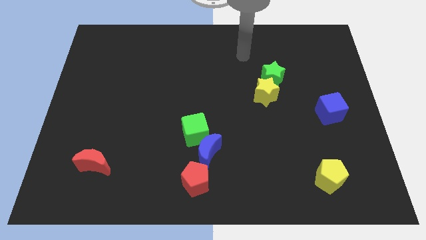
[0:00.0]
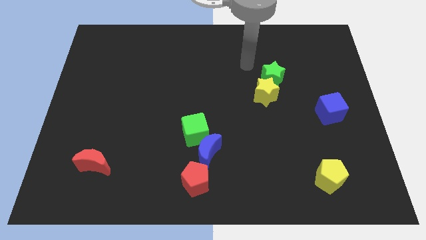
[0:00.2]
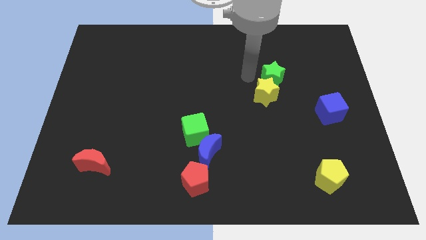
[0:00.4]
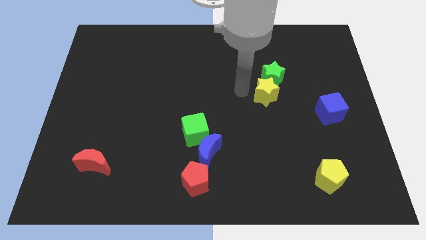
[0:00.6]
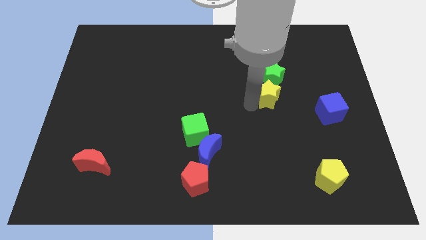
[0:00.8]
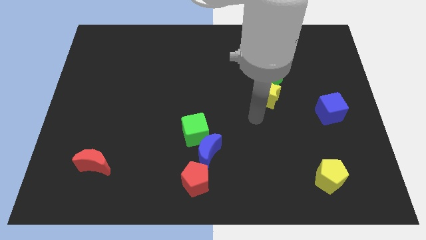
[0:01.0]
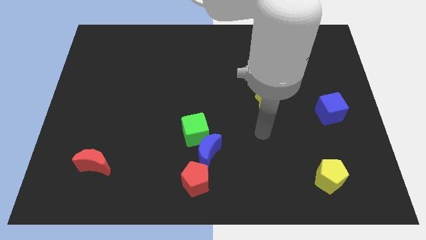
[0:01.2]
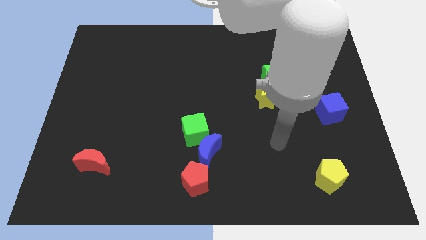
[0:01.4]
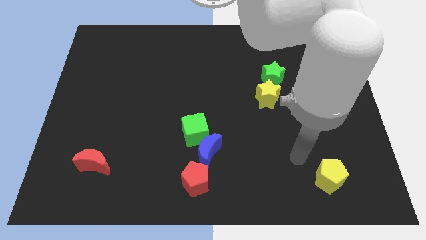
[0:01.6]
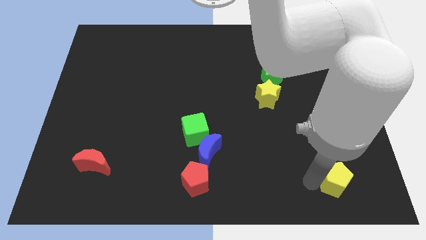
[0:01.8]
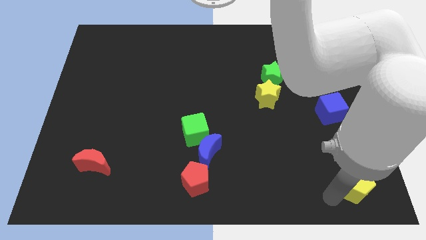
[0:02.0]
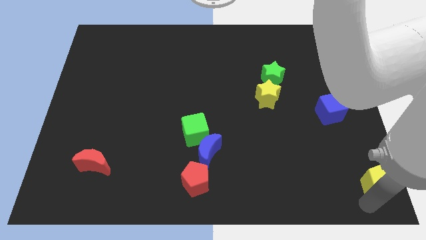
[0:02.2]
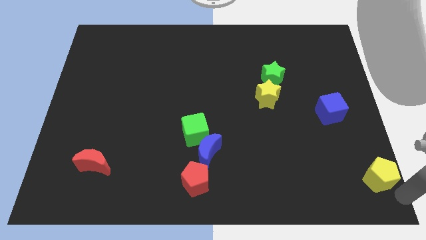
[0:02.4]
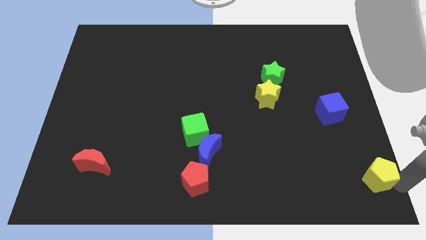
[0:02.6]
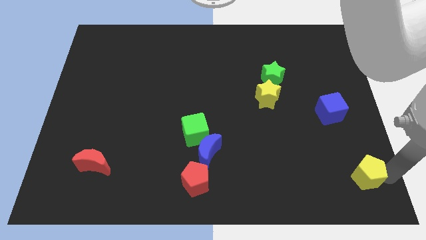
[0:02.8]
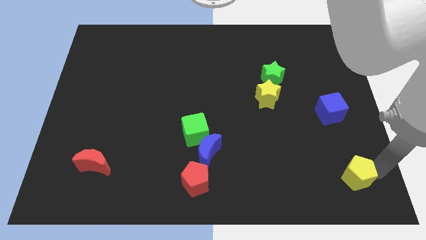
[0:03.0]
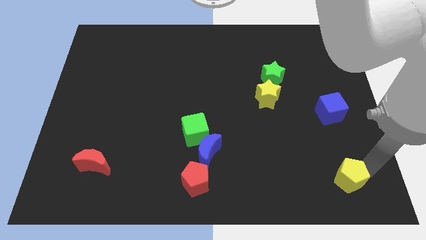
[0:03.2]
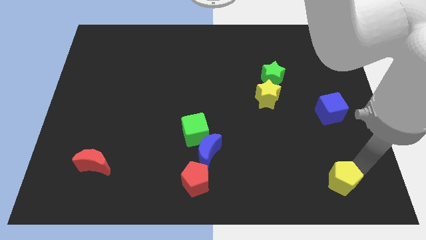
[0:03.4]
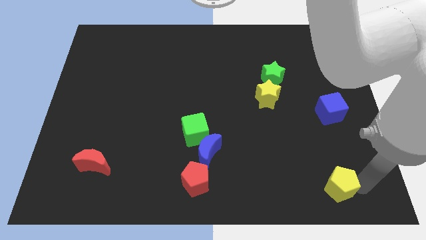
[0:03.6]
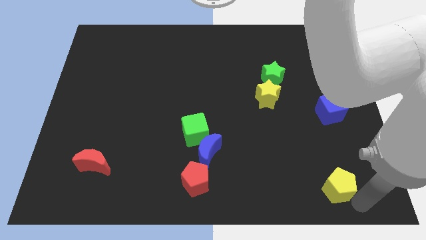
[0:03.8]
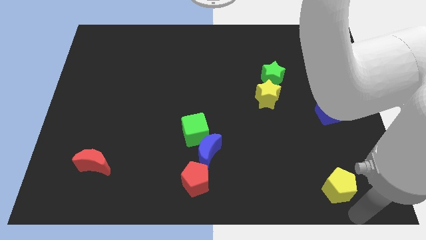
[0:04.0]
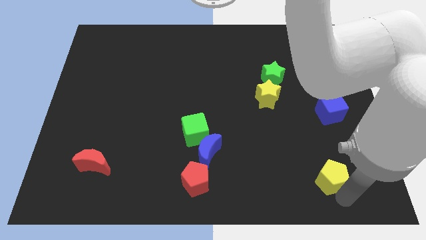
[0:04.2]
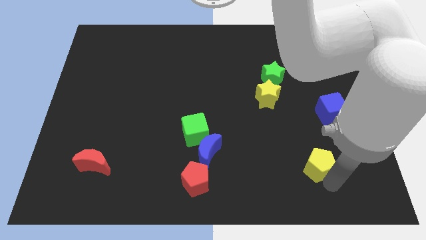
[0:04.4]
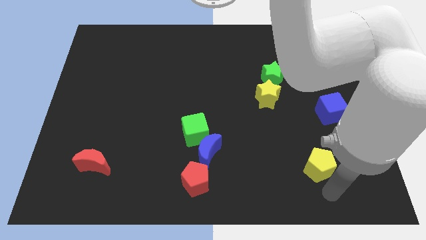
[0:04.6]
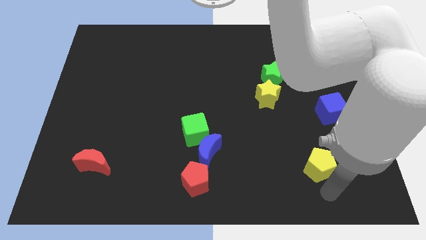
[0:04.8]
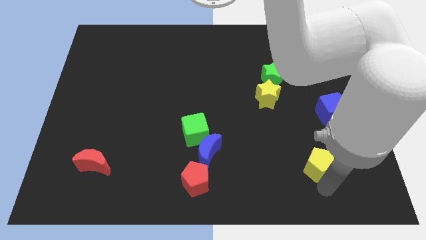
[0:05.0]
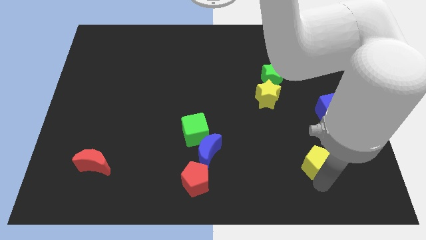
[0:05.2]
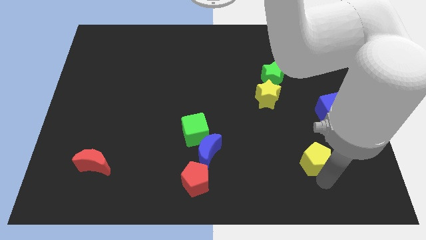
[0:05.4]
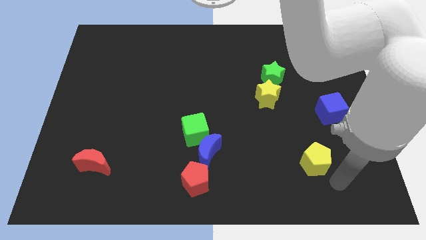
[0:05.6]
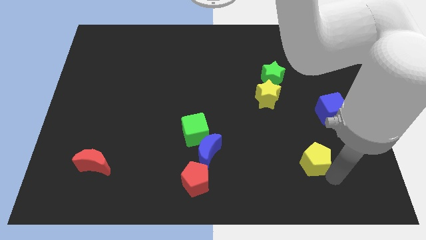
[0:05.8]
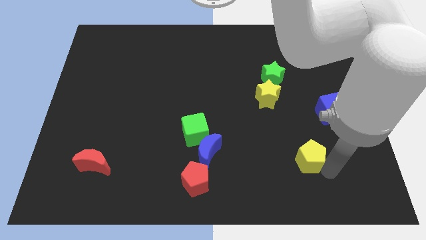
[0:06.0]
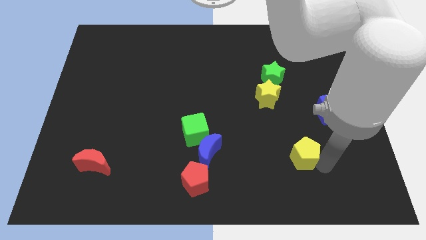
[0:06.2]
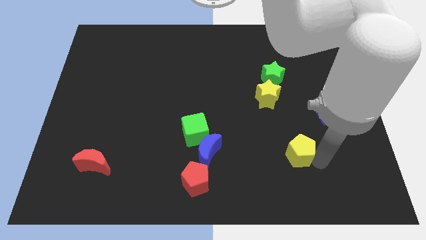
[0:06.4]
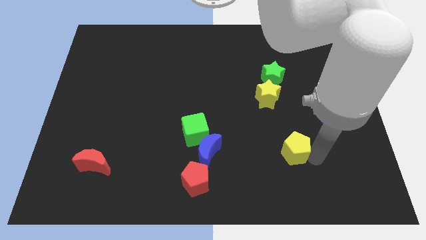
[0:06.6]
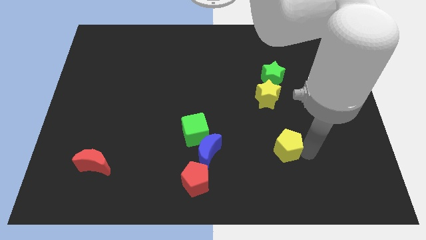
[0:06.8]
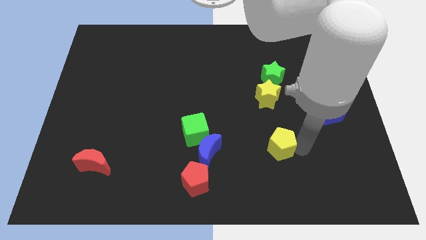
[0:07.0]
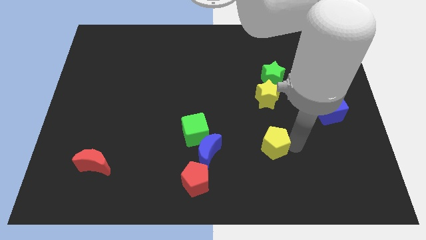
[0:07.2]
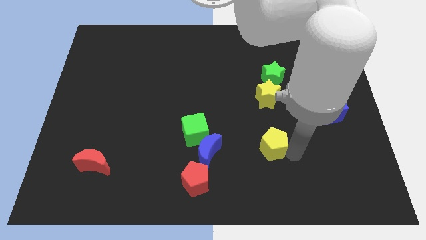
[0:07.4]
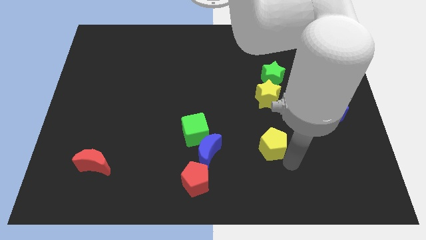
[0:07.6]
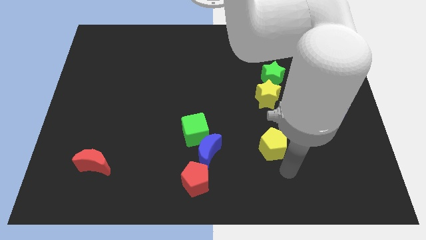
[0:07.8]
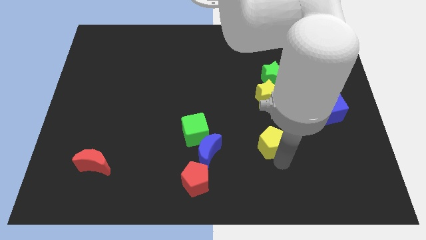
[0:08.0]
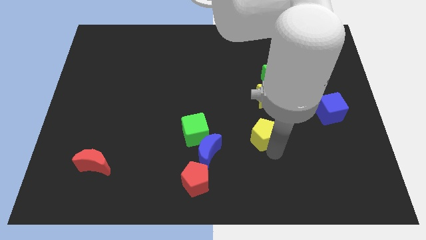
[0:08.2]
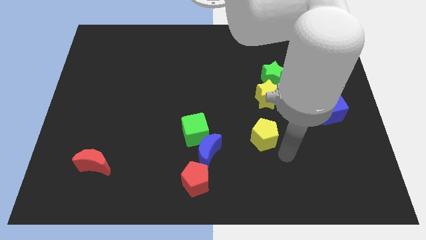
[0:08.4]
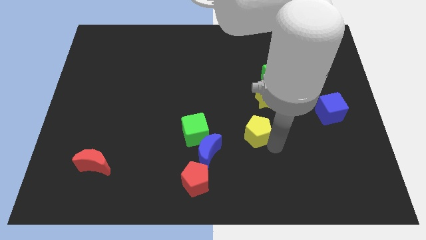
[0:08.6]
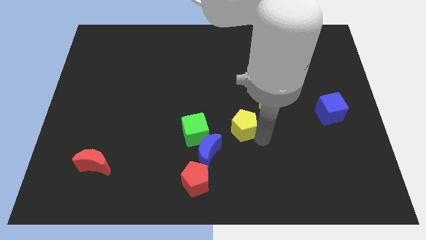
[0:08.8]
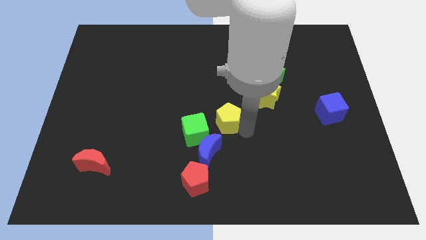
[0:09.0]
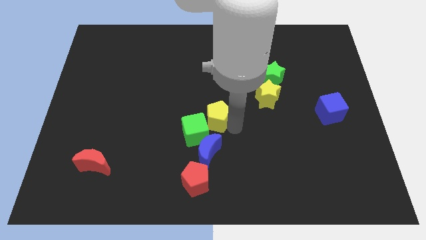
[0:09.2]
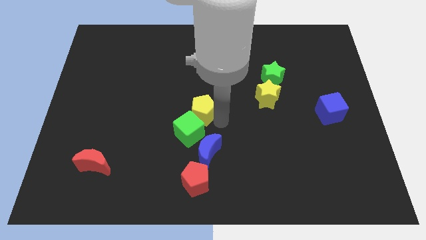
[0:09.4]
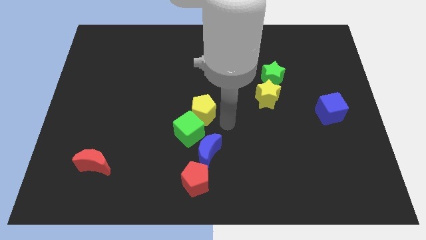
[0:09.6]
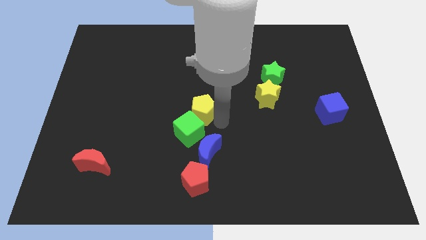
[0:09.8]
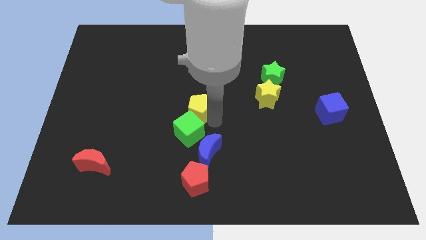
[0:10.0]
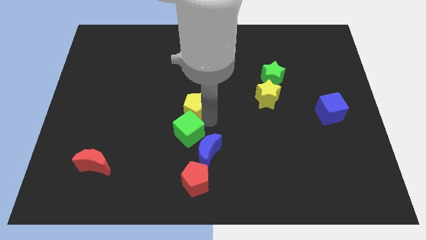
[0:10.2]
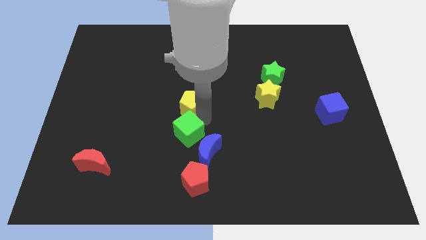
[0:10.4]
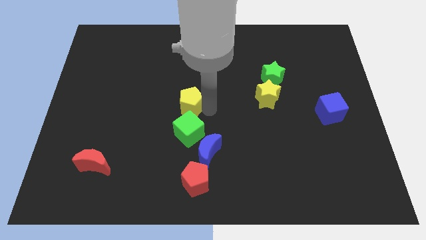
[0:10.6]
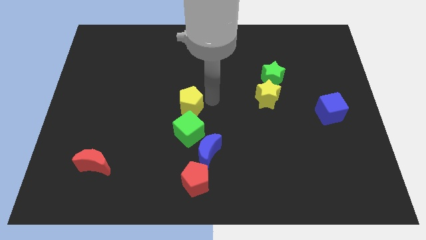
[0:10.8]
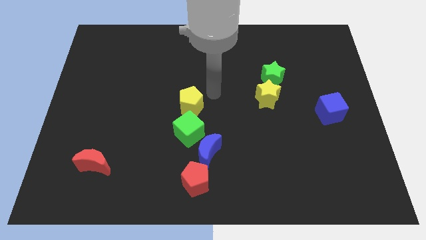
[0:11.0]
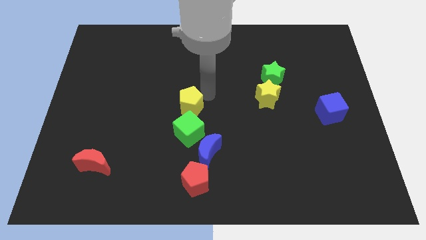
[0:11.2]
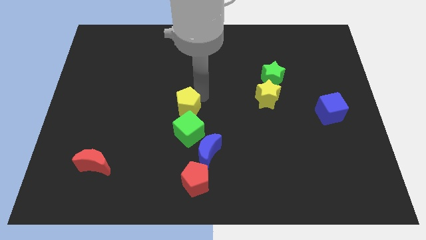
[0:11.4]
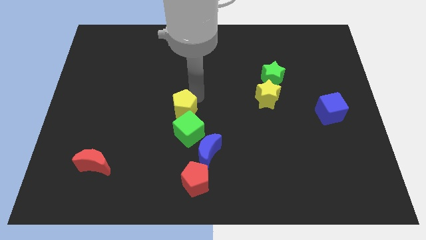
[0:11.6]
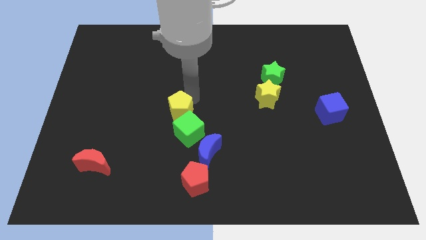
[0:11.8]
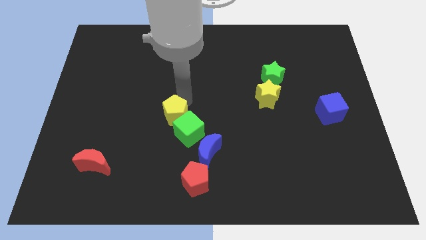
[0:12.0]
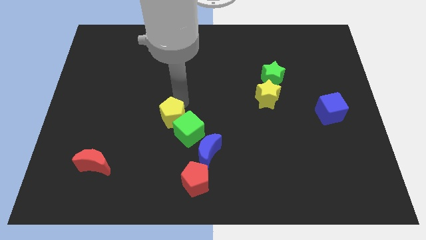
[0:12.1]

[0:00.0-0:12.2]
slide the yellow pentagon to the left side of the green cube

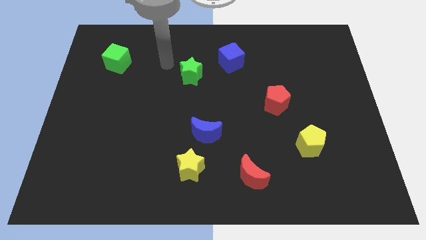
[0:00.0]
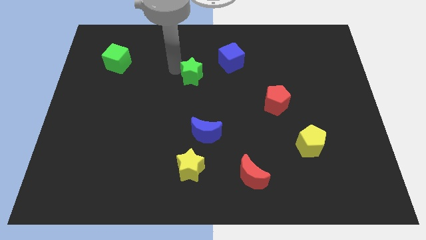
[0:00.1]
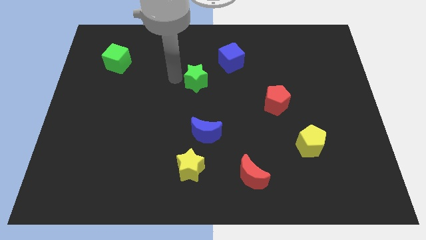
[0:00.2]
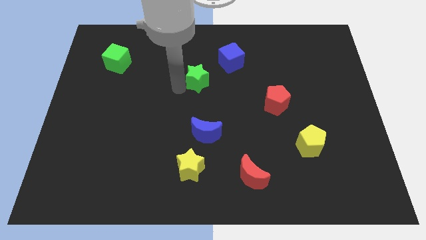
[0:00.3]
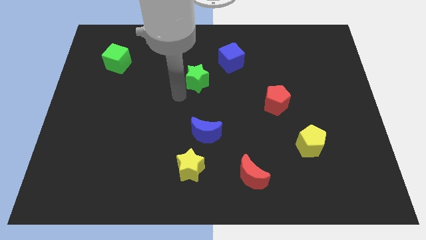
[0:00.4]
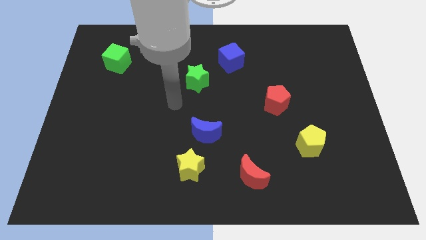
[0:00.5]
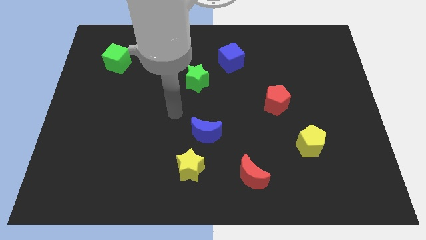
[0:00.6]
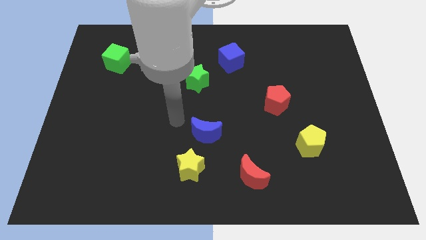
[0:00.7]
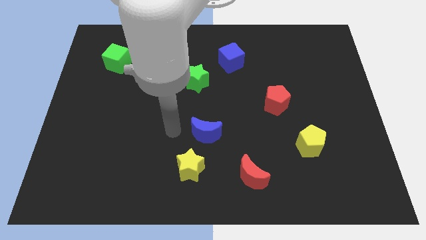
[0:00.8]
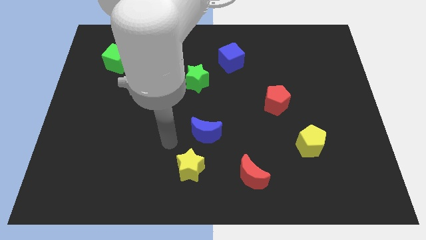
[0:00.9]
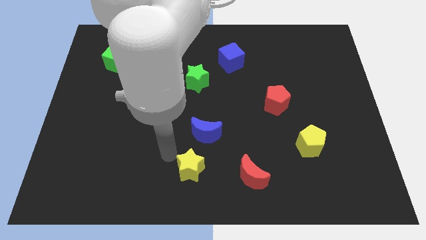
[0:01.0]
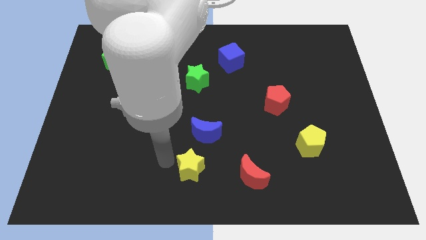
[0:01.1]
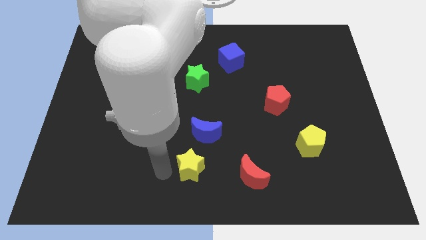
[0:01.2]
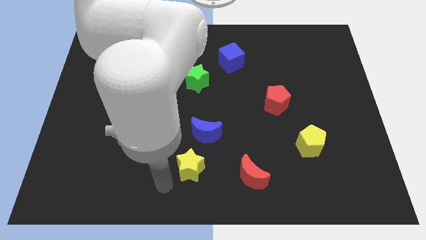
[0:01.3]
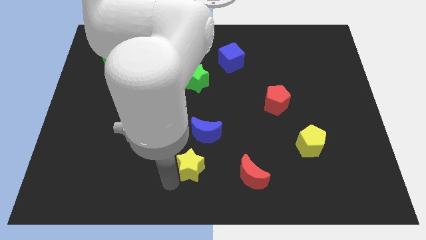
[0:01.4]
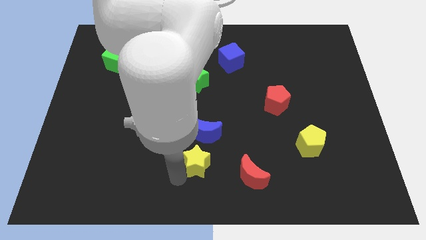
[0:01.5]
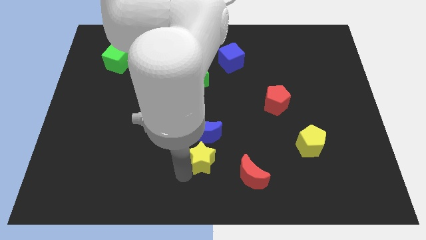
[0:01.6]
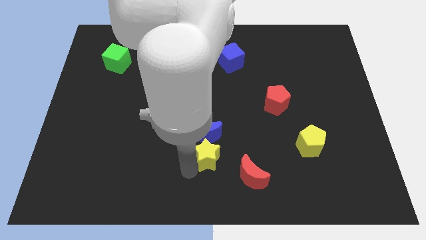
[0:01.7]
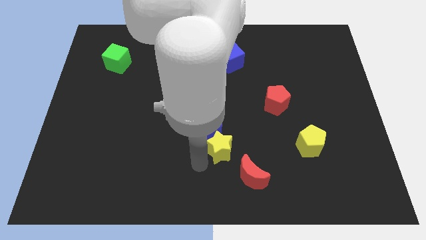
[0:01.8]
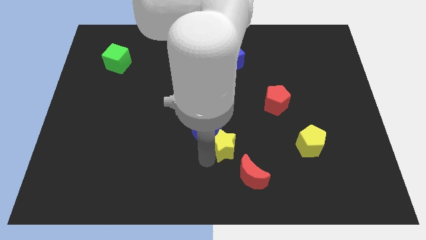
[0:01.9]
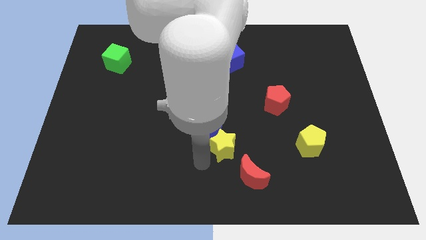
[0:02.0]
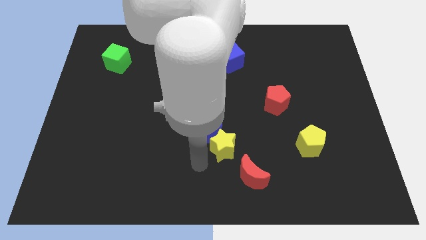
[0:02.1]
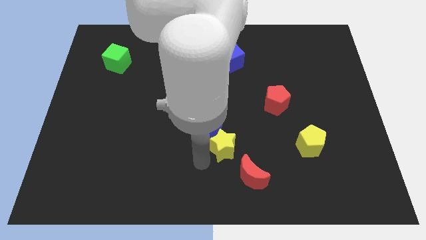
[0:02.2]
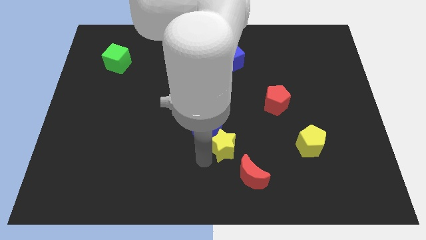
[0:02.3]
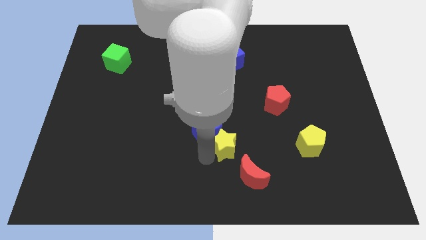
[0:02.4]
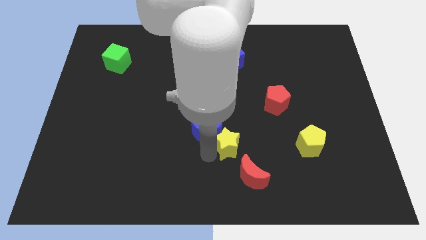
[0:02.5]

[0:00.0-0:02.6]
push the yellow star to the top of the red moon
